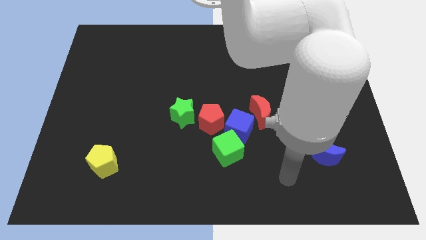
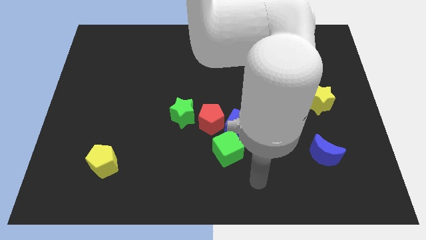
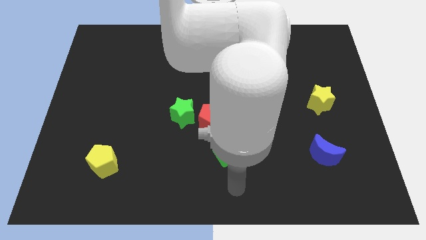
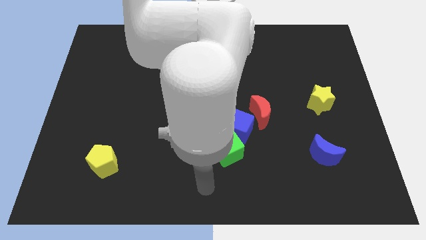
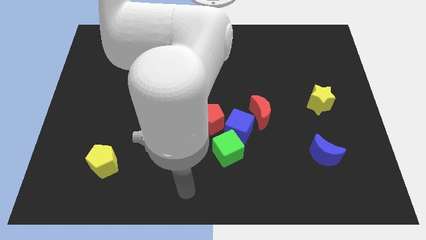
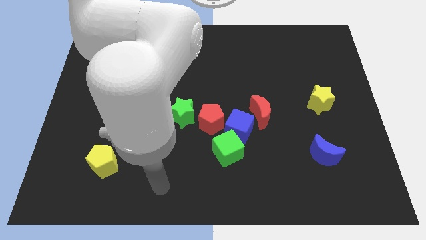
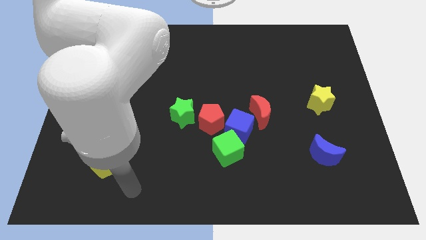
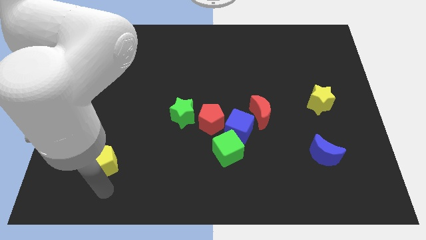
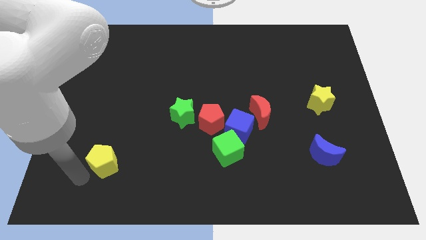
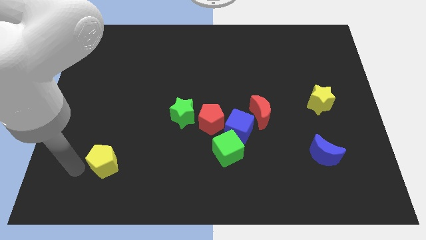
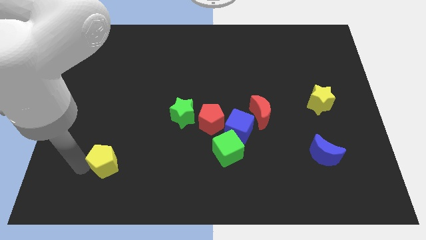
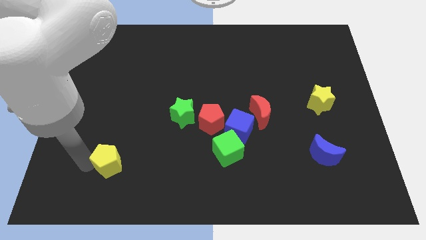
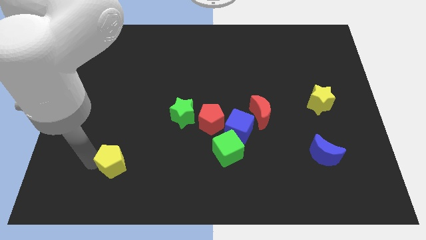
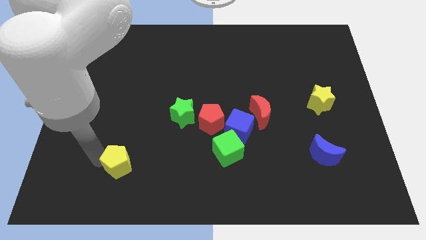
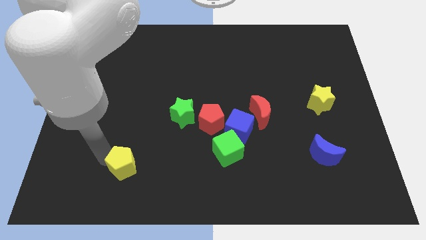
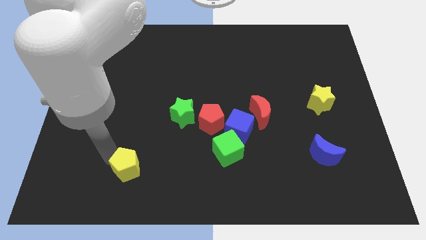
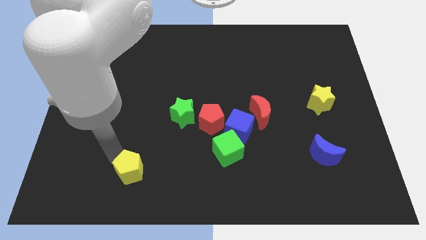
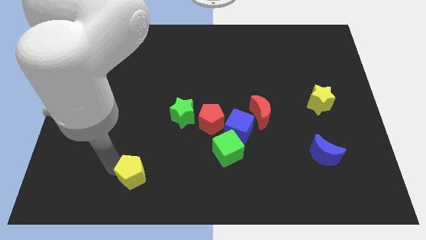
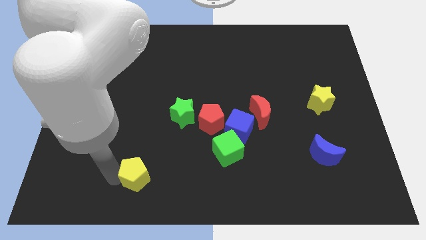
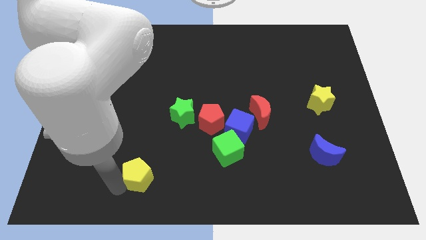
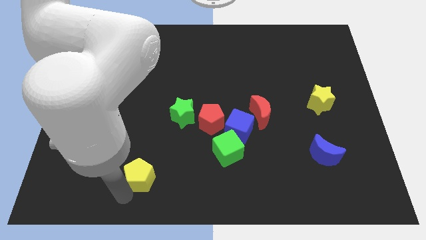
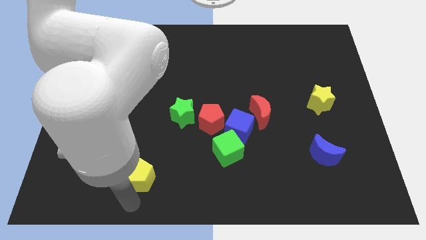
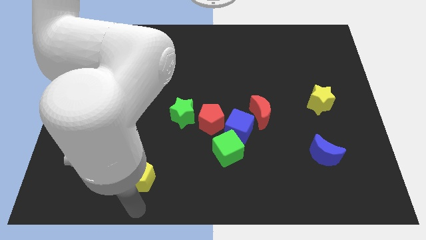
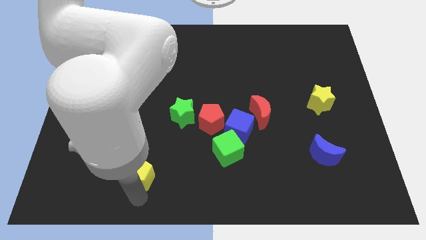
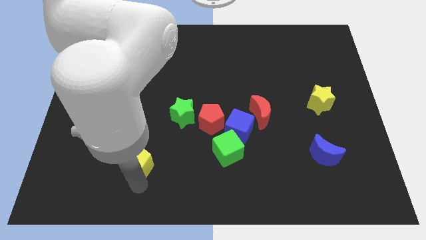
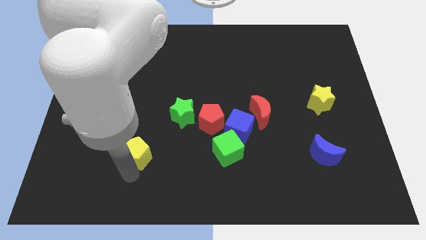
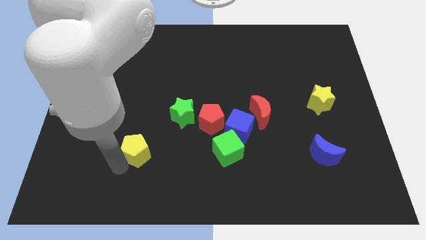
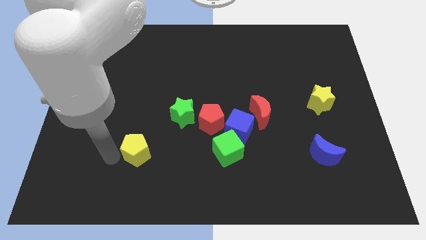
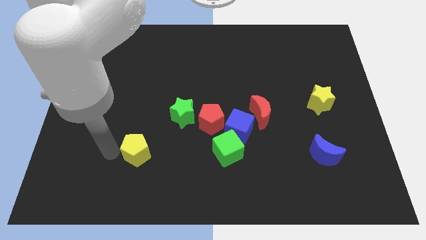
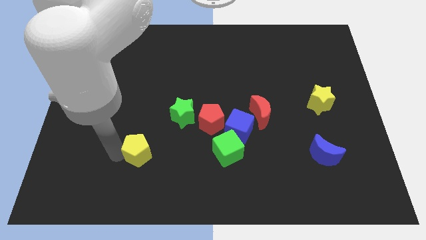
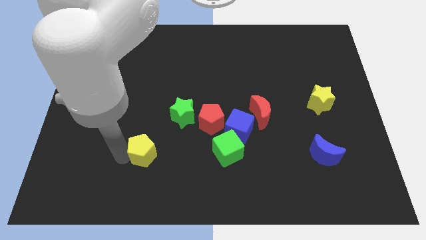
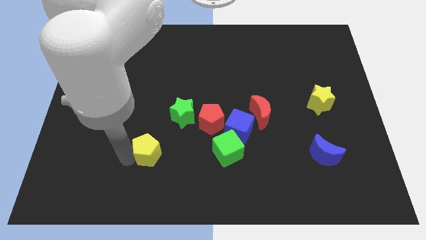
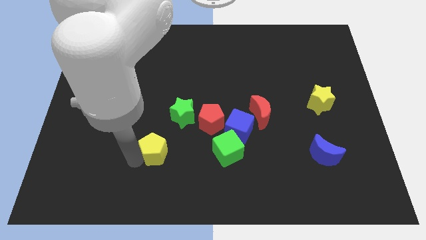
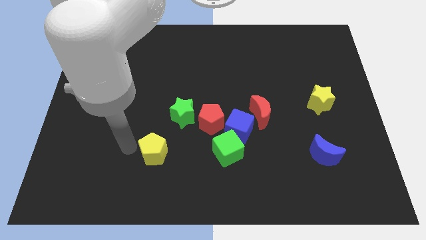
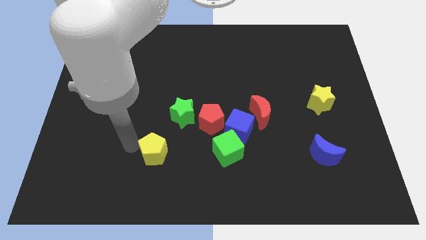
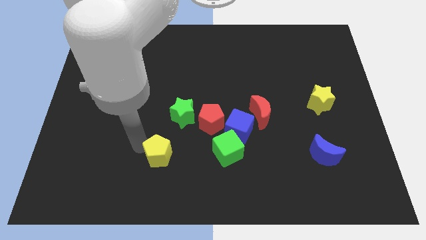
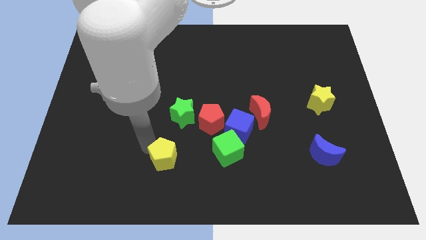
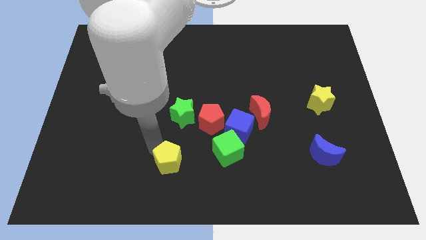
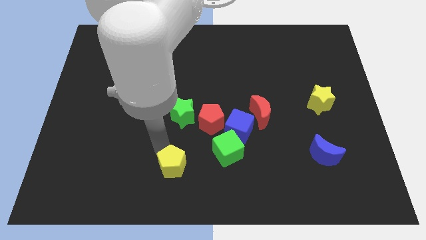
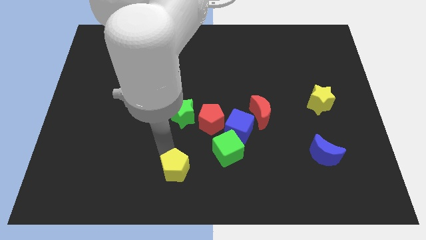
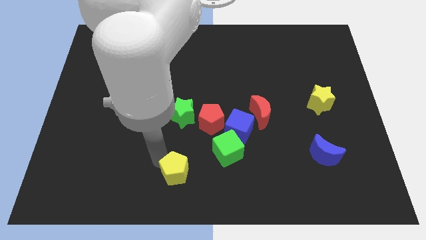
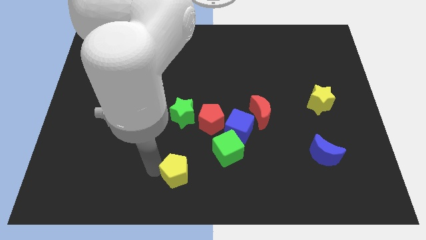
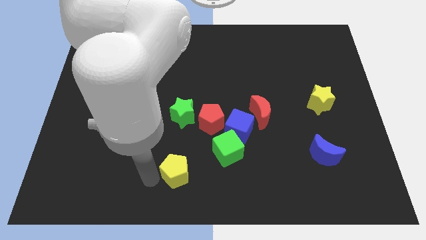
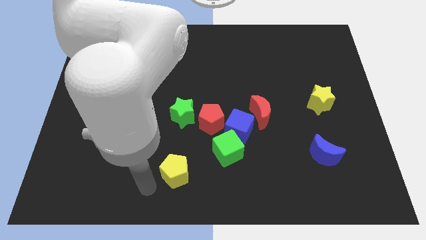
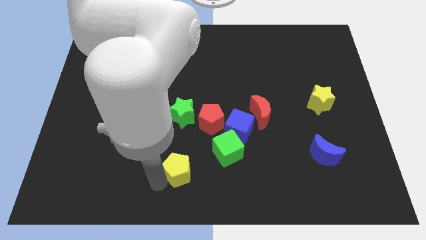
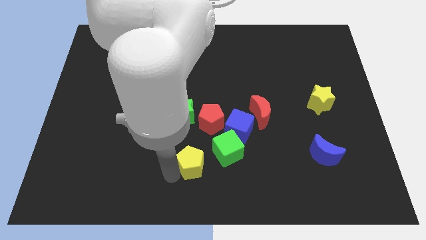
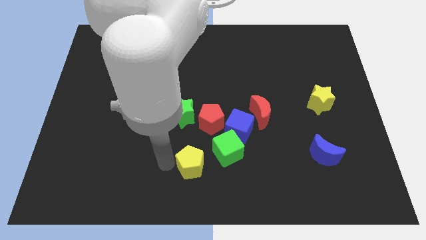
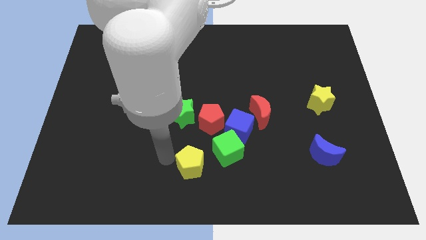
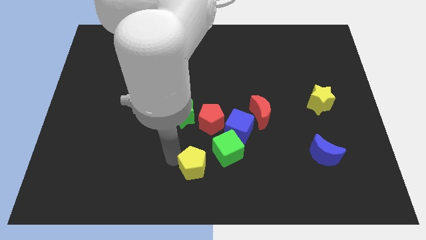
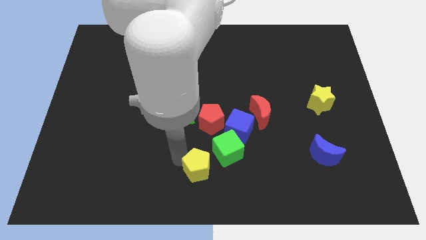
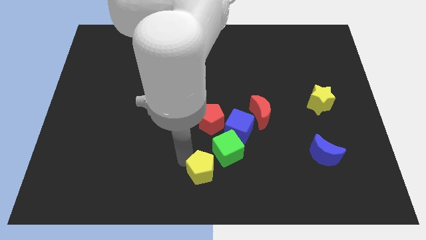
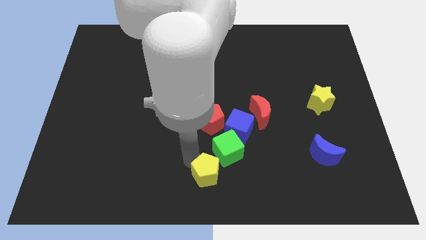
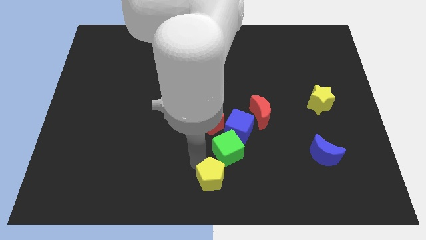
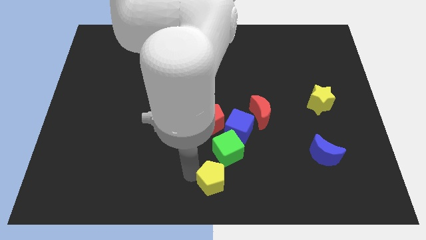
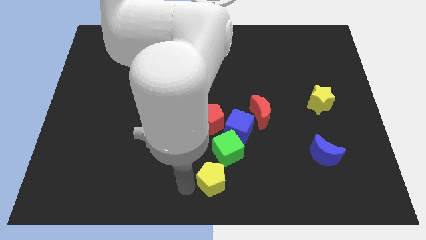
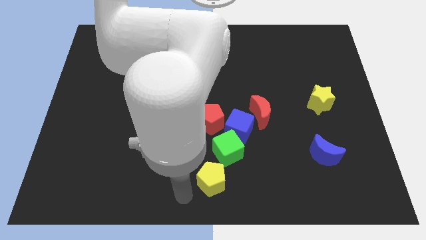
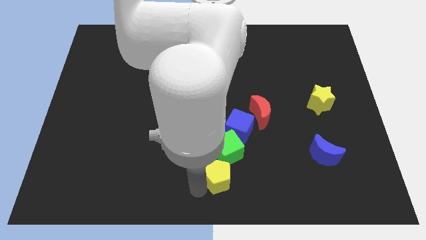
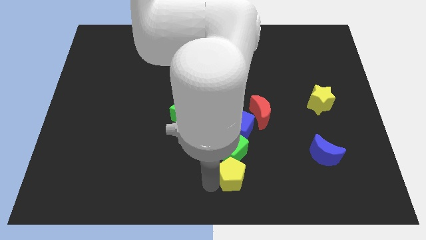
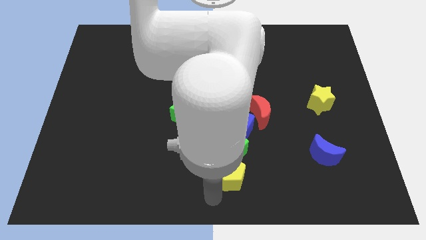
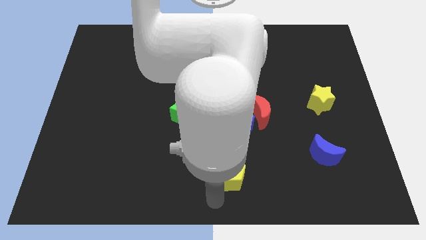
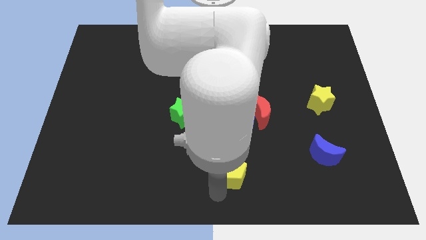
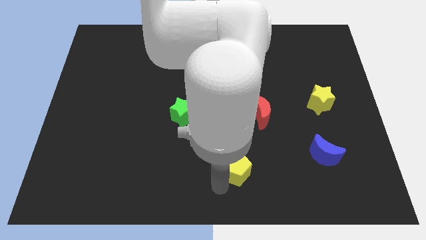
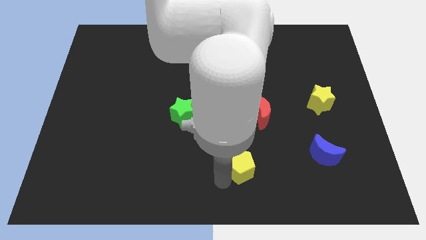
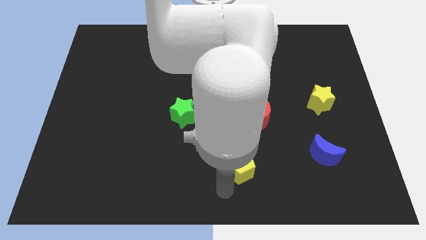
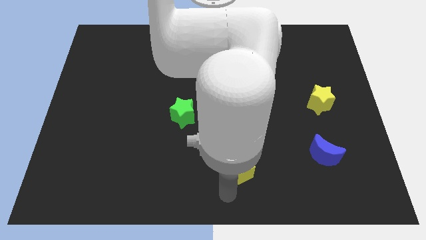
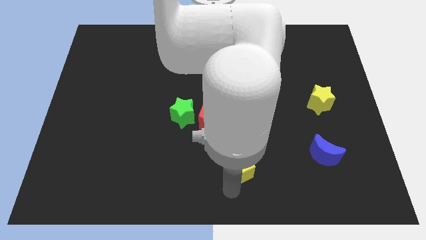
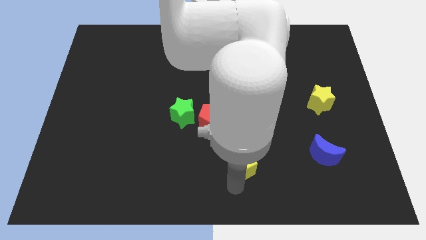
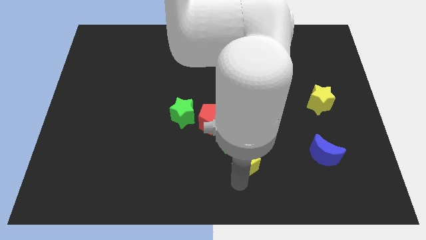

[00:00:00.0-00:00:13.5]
put the yellow pentagon to the bottom right side of the red pentagon
